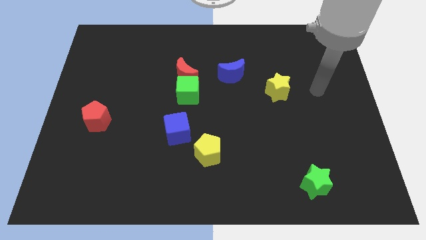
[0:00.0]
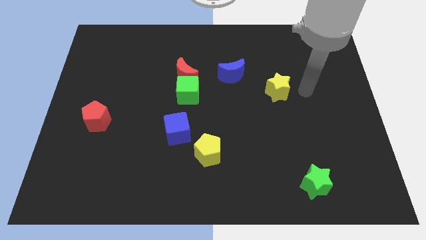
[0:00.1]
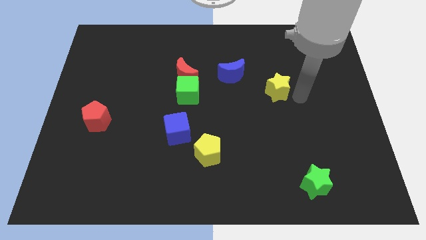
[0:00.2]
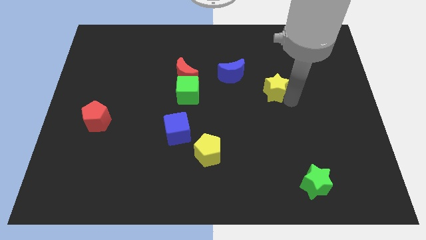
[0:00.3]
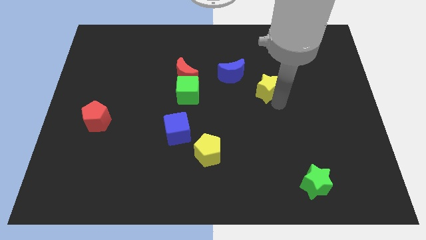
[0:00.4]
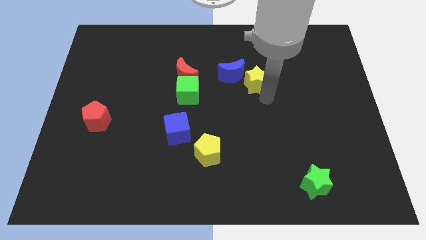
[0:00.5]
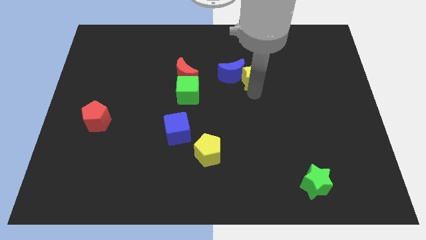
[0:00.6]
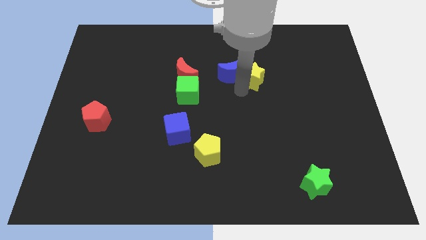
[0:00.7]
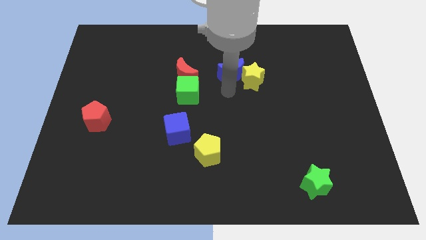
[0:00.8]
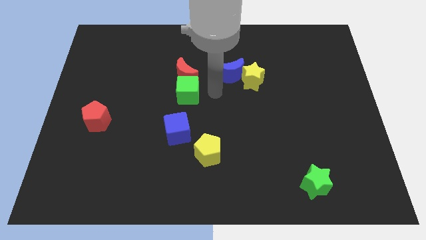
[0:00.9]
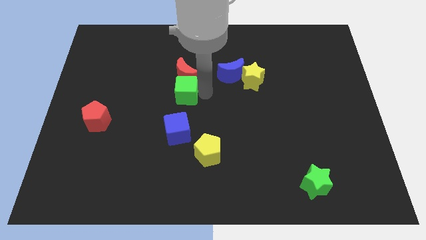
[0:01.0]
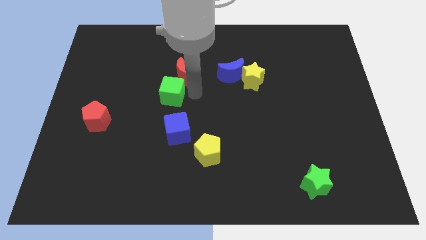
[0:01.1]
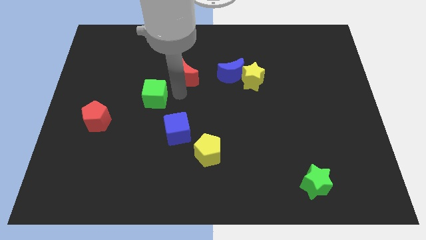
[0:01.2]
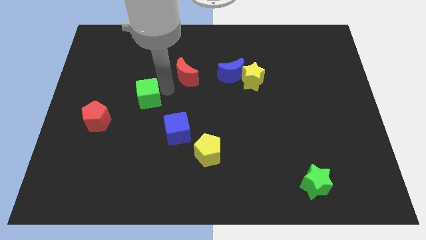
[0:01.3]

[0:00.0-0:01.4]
pull the red moon apart from the green cube

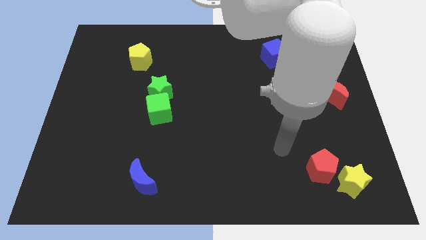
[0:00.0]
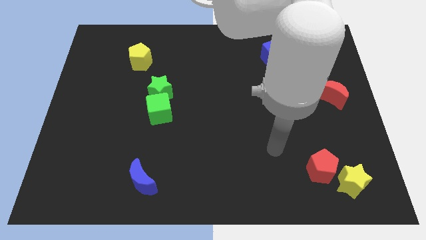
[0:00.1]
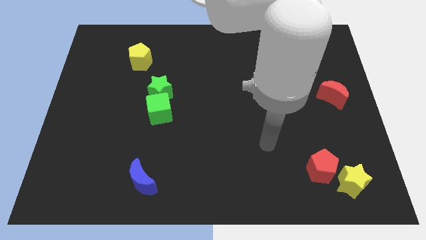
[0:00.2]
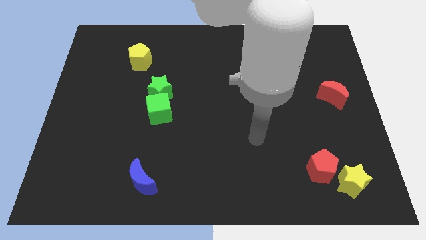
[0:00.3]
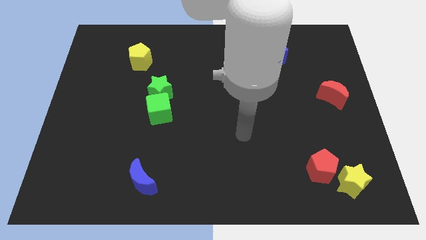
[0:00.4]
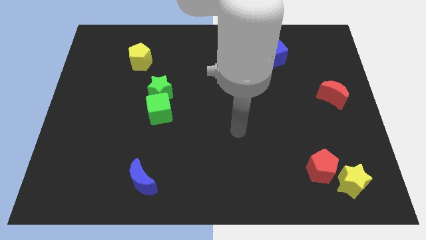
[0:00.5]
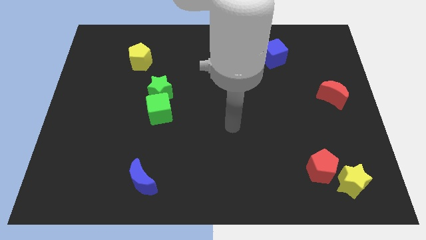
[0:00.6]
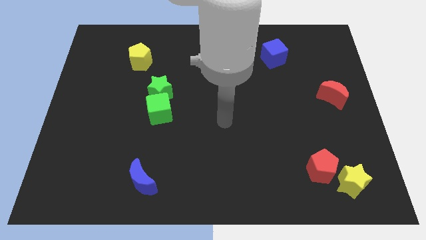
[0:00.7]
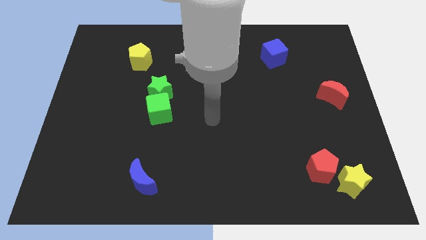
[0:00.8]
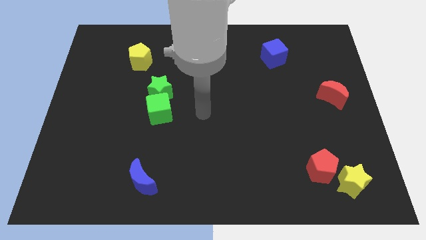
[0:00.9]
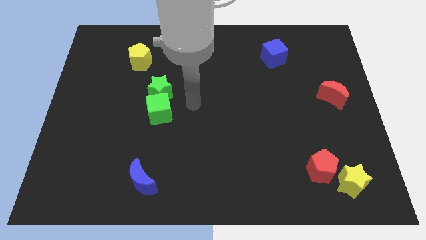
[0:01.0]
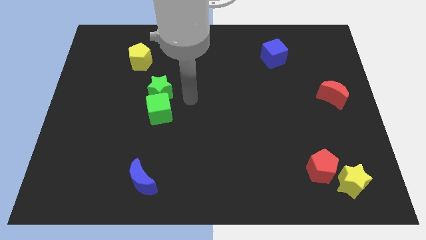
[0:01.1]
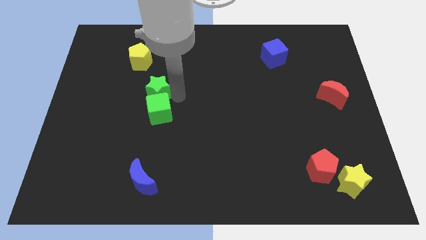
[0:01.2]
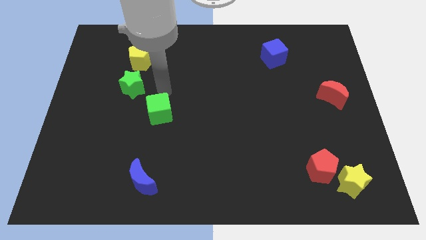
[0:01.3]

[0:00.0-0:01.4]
separate the green cube from the green star

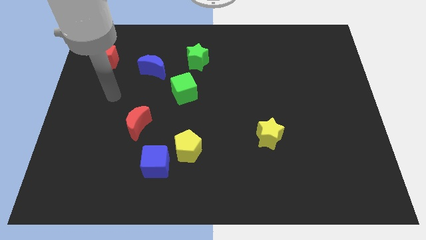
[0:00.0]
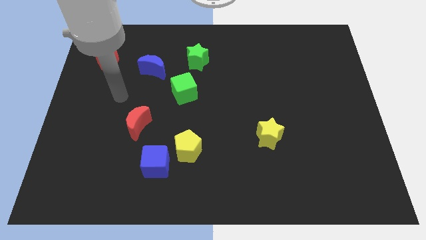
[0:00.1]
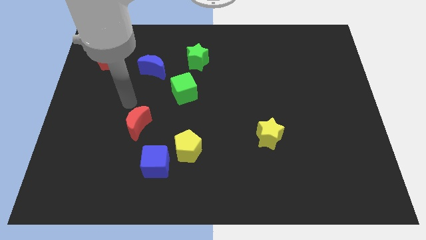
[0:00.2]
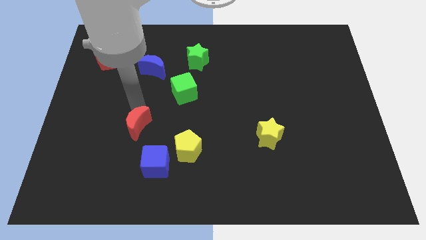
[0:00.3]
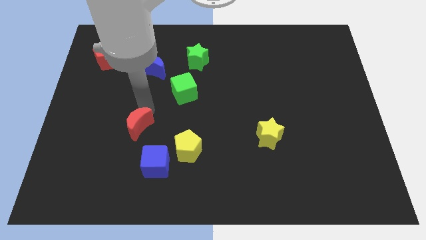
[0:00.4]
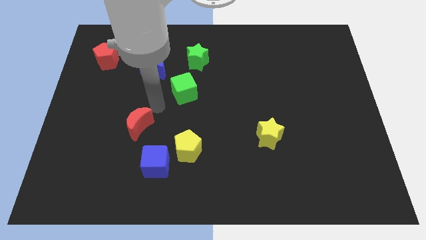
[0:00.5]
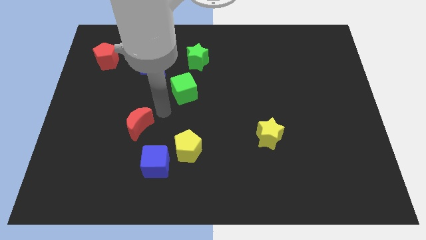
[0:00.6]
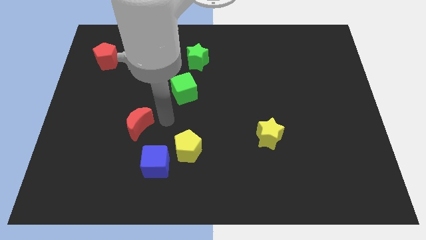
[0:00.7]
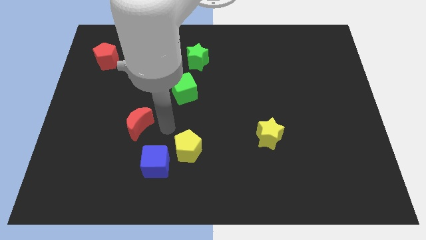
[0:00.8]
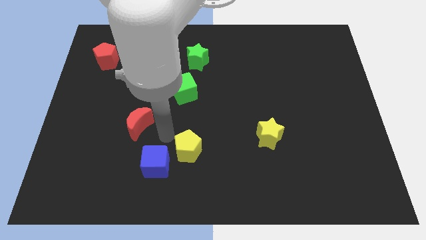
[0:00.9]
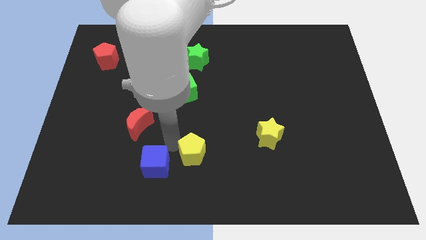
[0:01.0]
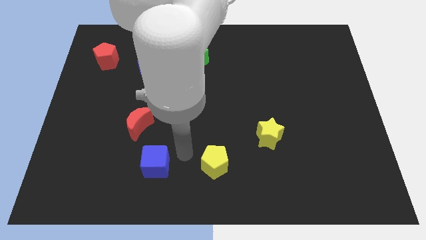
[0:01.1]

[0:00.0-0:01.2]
move the blue cube away from the yellow pentagon

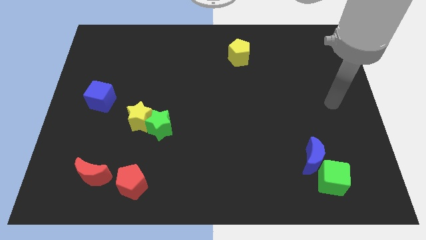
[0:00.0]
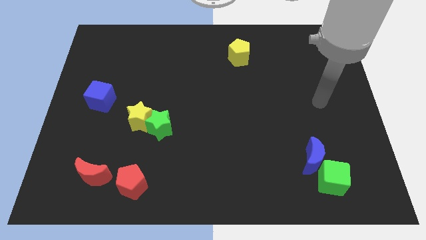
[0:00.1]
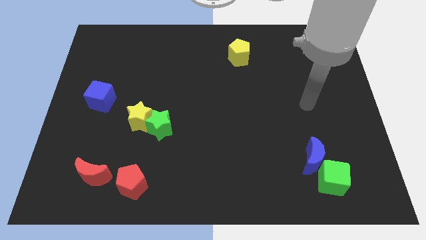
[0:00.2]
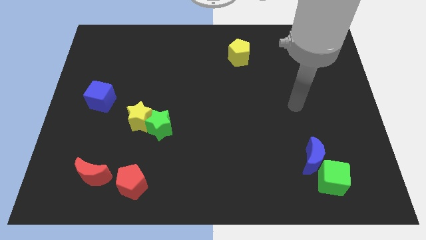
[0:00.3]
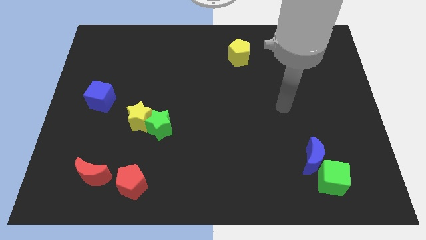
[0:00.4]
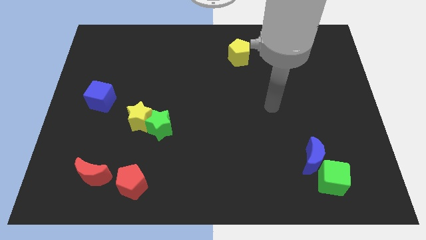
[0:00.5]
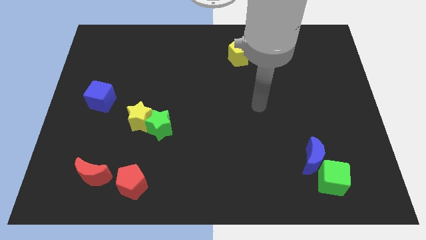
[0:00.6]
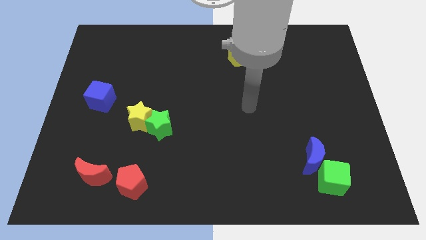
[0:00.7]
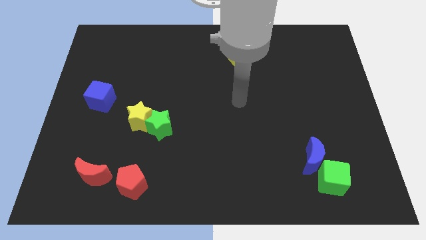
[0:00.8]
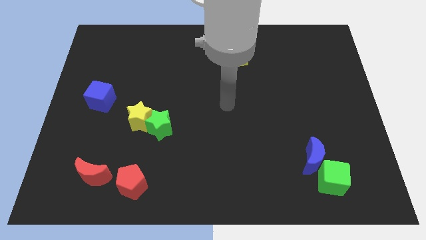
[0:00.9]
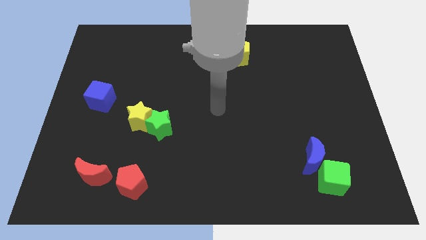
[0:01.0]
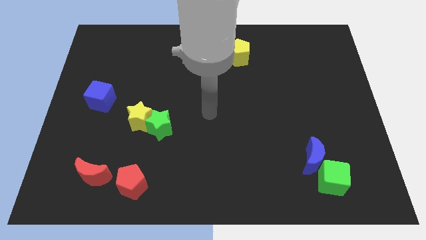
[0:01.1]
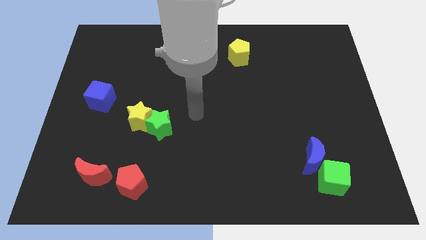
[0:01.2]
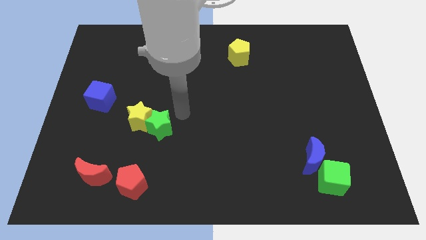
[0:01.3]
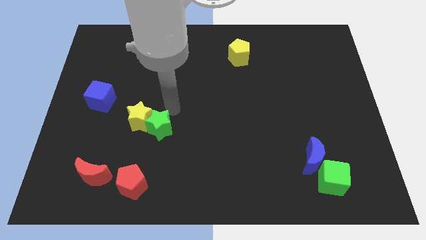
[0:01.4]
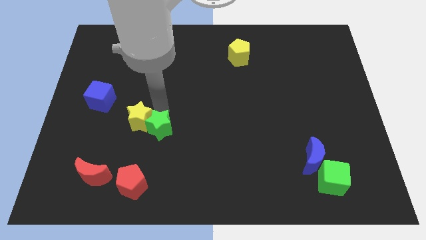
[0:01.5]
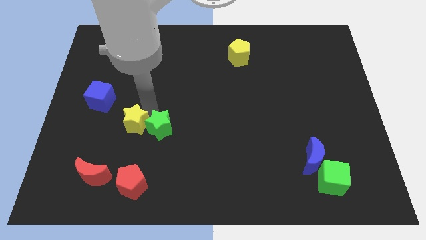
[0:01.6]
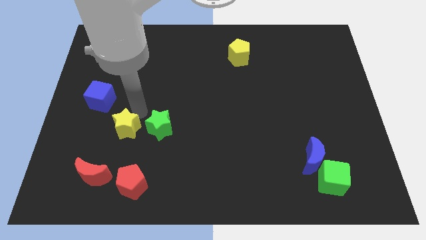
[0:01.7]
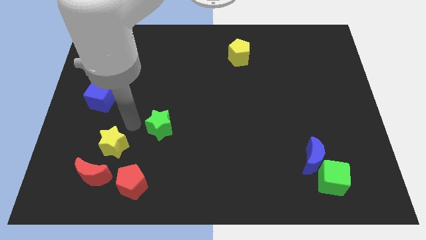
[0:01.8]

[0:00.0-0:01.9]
pull the green star apart from the yellow star

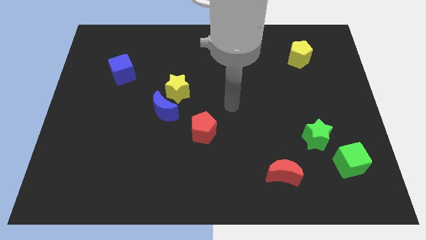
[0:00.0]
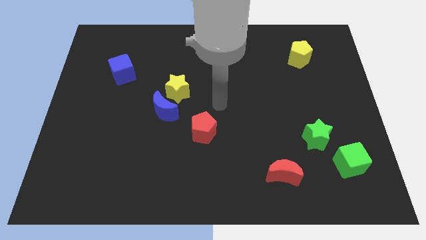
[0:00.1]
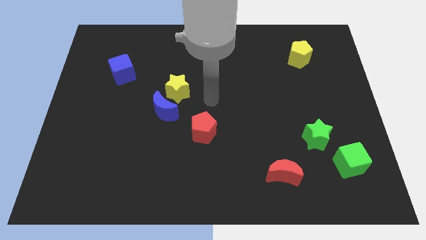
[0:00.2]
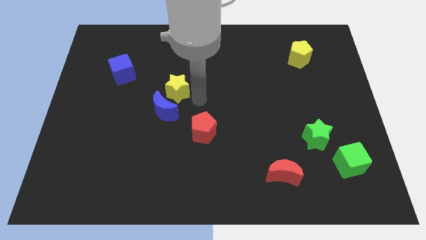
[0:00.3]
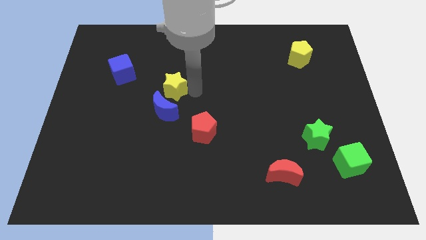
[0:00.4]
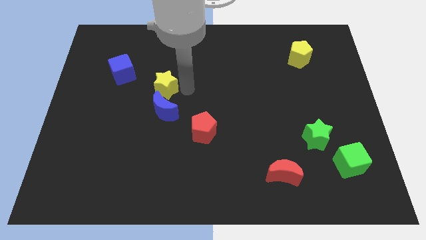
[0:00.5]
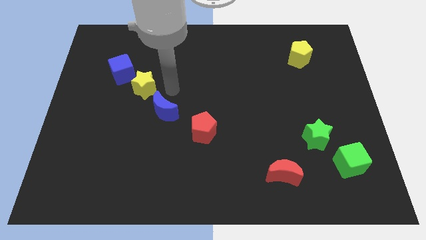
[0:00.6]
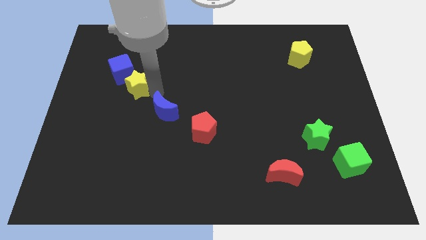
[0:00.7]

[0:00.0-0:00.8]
pull the blue moon apart from the yellow star

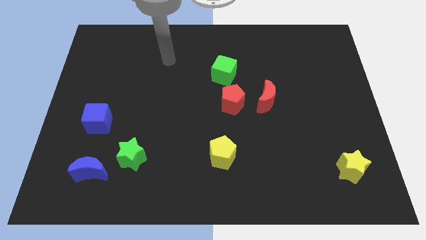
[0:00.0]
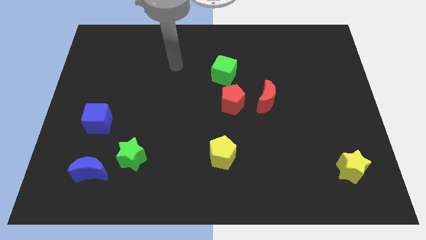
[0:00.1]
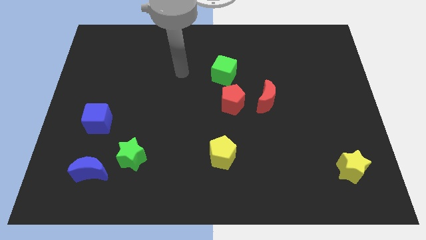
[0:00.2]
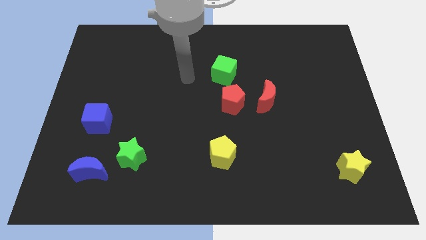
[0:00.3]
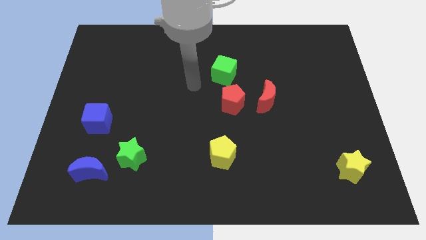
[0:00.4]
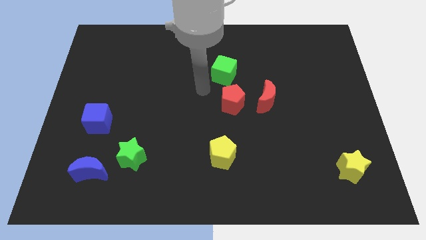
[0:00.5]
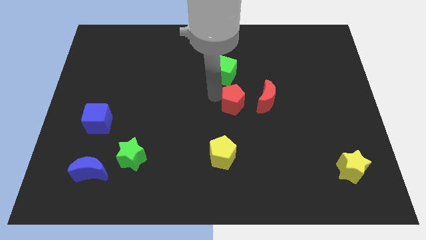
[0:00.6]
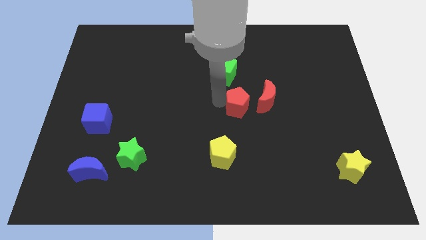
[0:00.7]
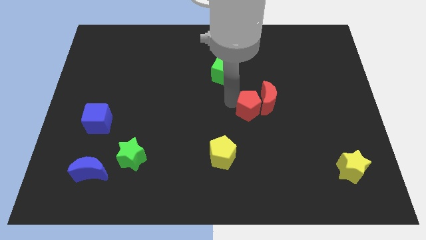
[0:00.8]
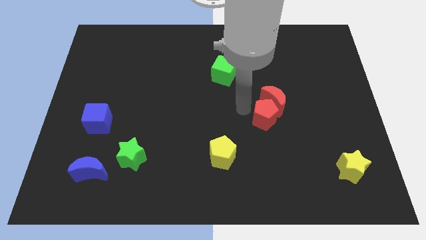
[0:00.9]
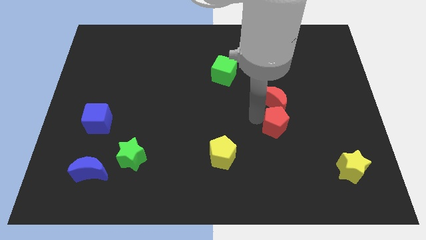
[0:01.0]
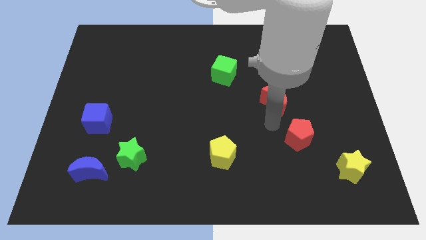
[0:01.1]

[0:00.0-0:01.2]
separate the red moon from the red pentagon

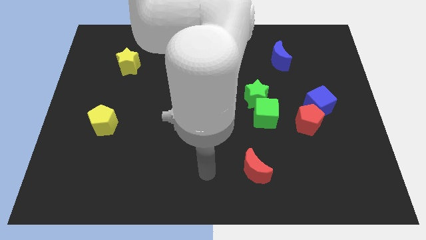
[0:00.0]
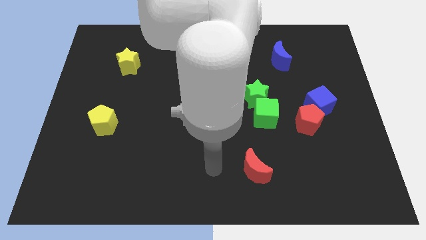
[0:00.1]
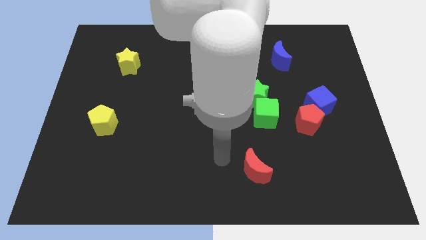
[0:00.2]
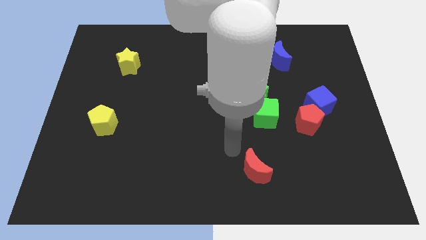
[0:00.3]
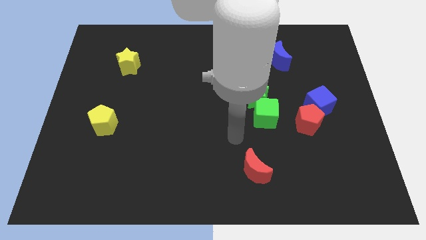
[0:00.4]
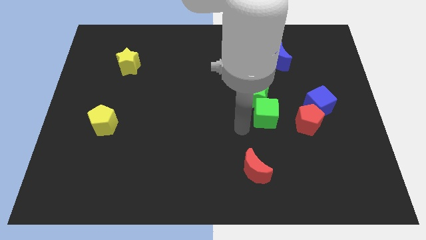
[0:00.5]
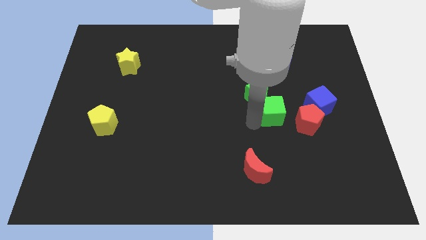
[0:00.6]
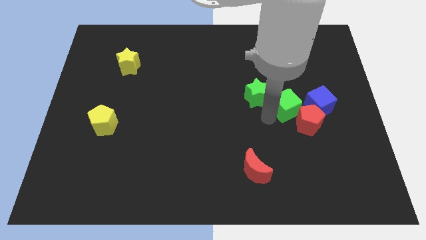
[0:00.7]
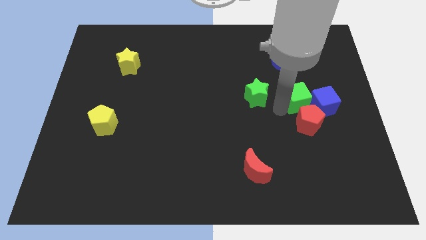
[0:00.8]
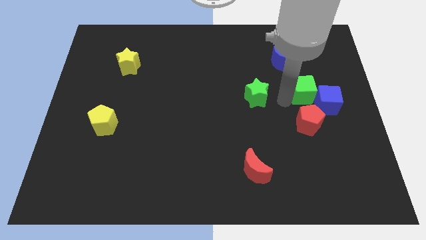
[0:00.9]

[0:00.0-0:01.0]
separate the green star from the green cube

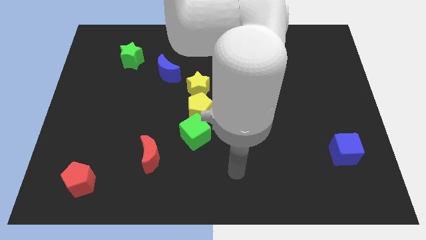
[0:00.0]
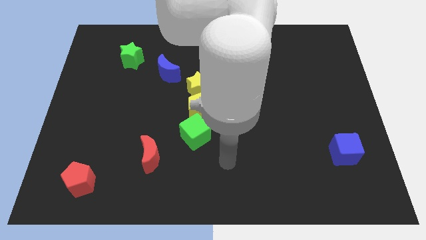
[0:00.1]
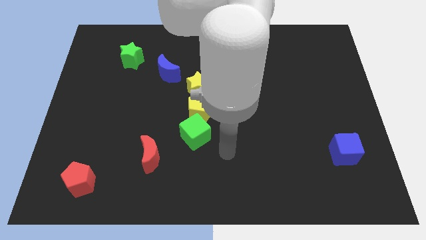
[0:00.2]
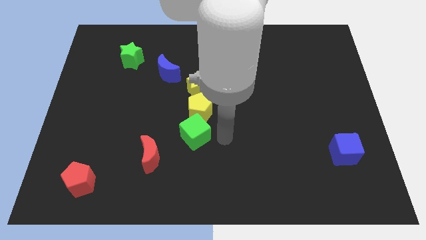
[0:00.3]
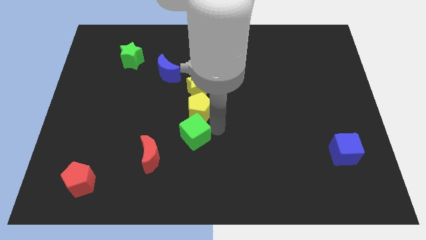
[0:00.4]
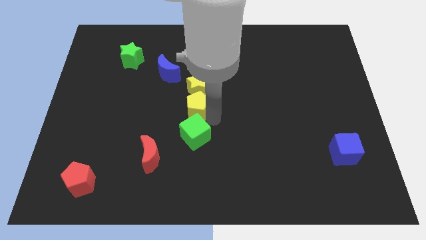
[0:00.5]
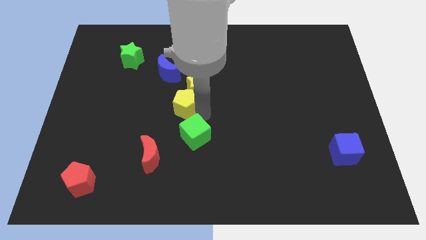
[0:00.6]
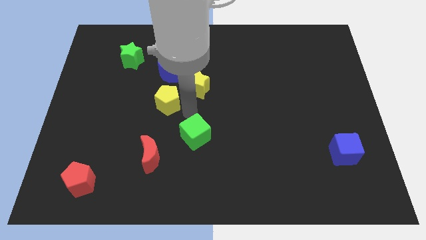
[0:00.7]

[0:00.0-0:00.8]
pull the green cube apart from the yellow pentagon
